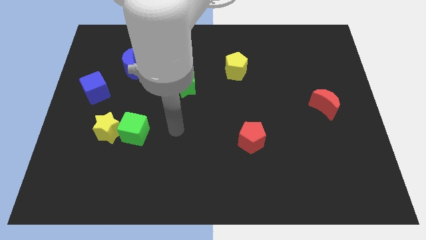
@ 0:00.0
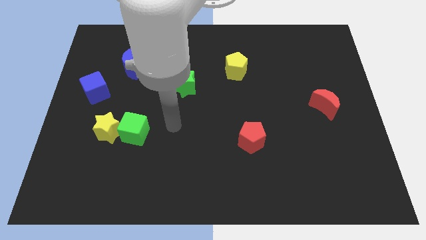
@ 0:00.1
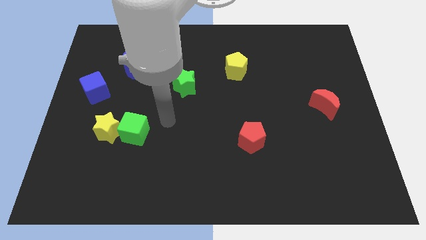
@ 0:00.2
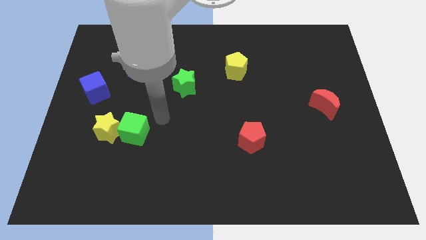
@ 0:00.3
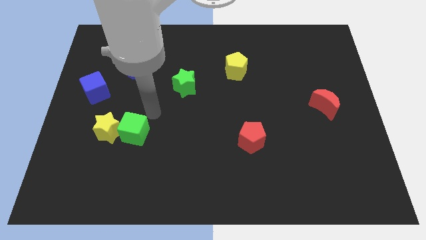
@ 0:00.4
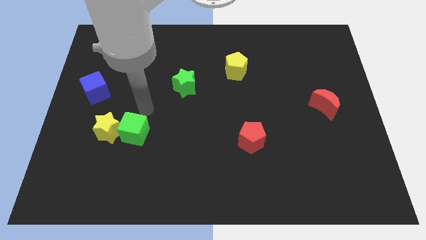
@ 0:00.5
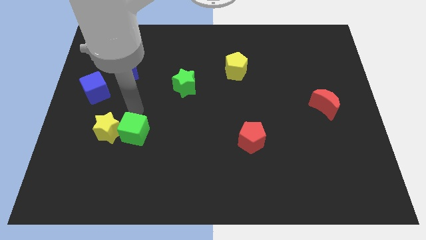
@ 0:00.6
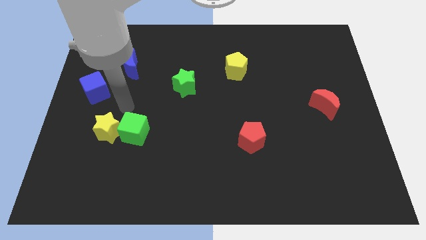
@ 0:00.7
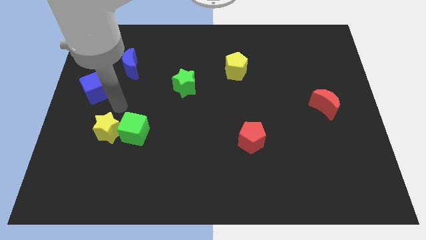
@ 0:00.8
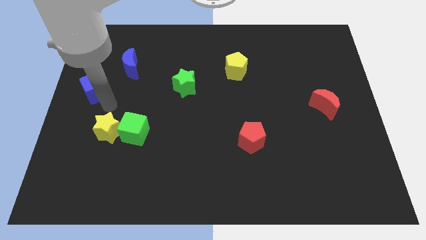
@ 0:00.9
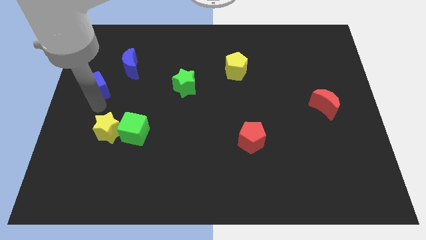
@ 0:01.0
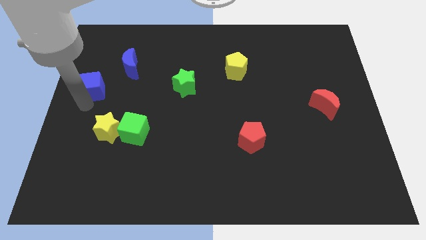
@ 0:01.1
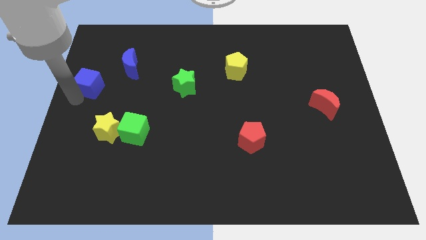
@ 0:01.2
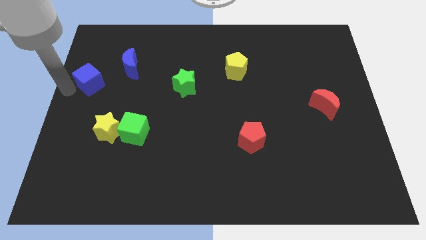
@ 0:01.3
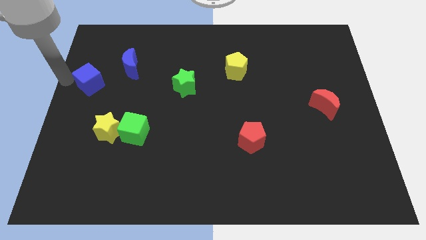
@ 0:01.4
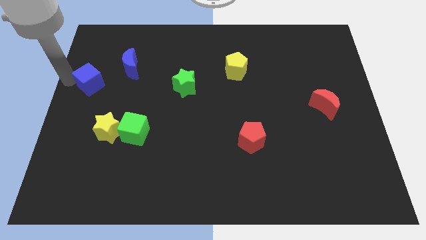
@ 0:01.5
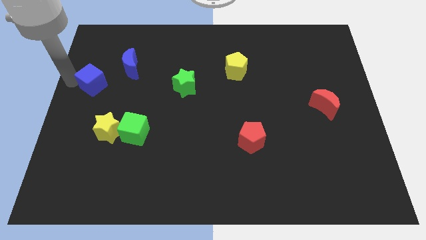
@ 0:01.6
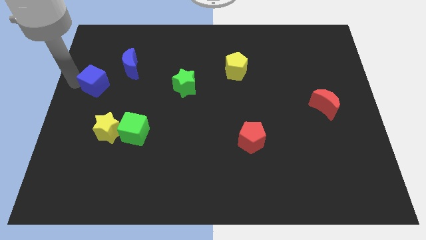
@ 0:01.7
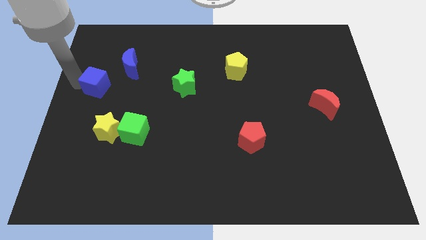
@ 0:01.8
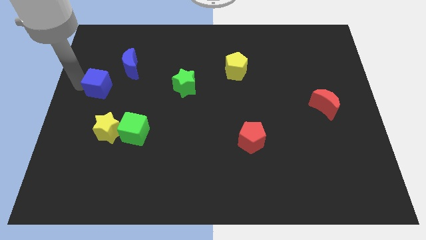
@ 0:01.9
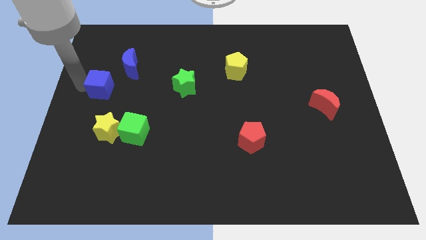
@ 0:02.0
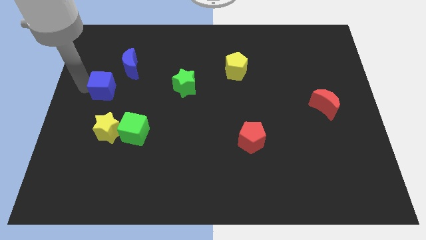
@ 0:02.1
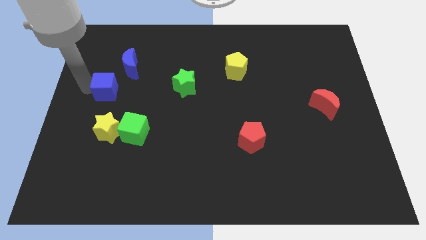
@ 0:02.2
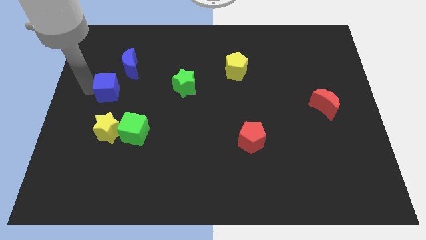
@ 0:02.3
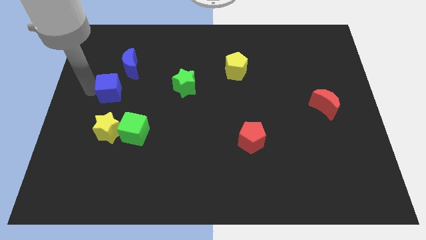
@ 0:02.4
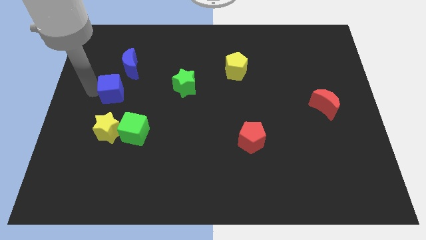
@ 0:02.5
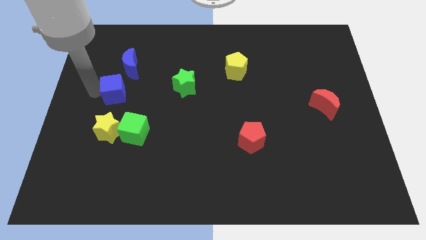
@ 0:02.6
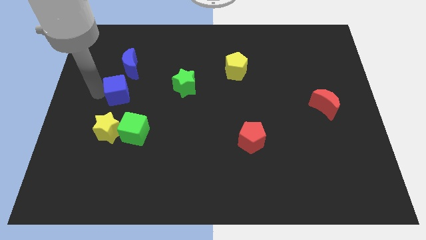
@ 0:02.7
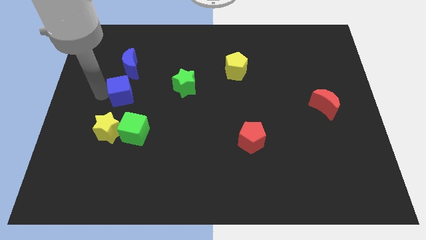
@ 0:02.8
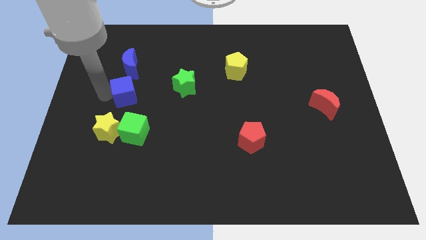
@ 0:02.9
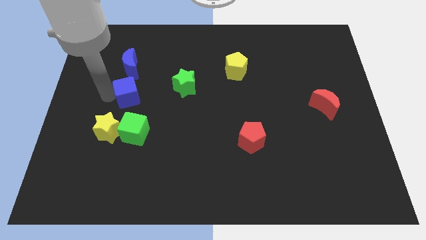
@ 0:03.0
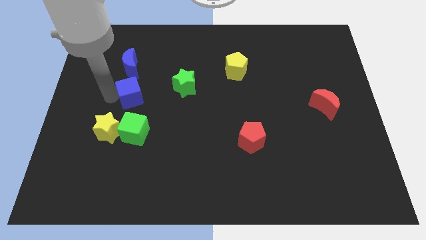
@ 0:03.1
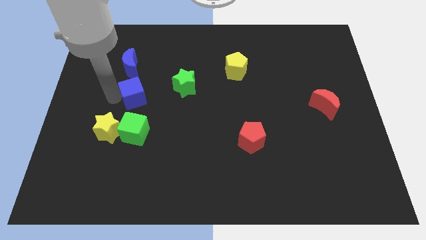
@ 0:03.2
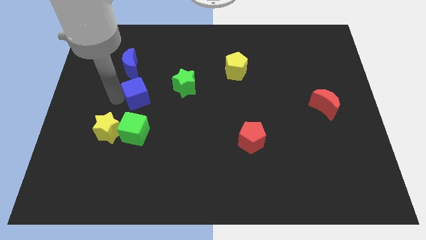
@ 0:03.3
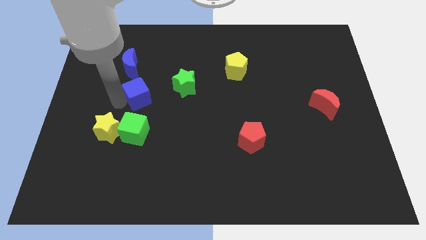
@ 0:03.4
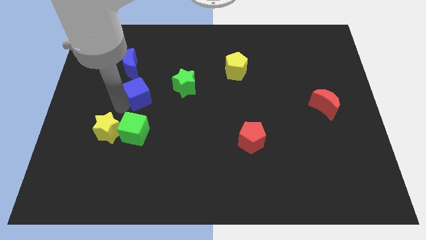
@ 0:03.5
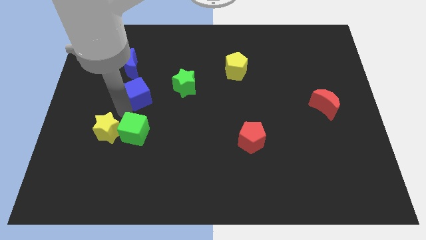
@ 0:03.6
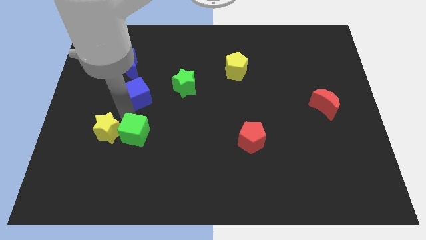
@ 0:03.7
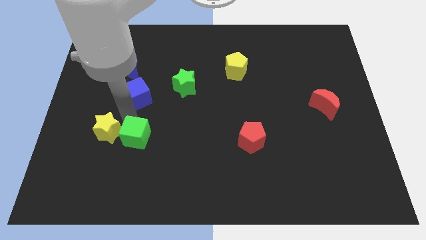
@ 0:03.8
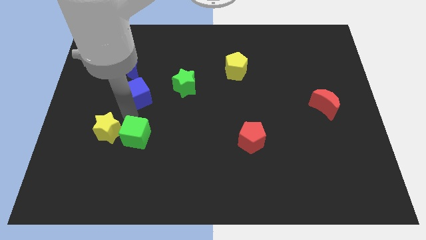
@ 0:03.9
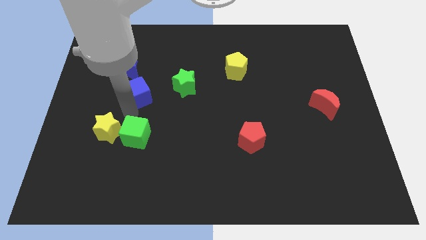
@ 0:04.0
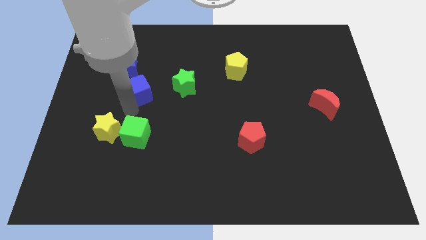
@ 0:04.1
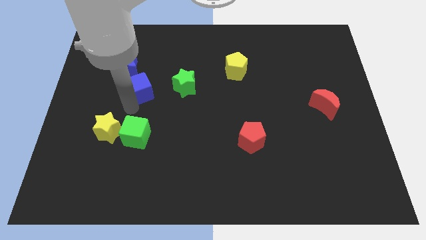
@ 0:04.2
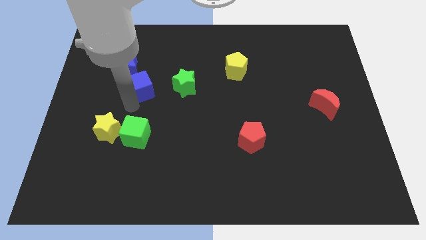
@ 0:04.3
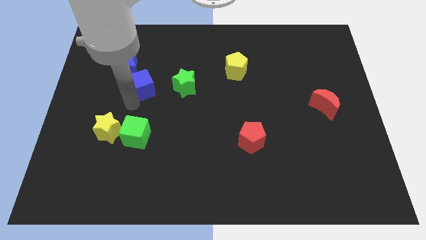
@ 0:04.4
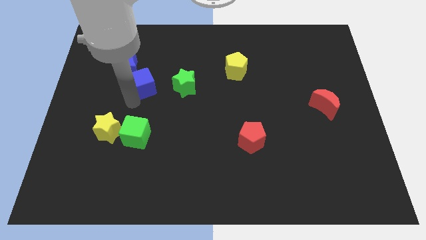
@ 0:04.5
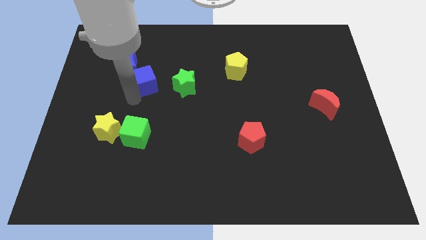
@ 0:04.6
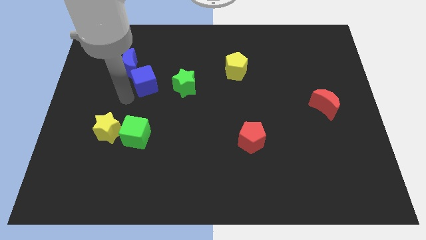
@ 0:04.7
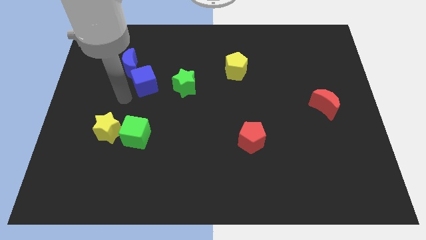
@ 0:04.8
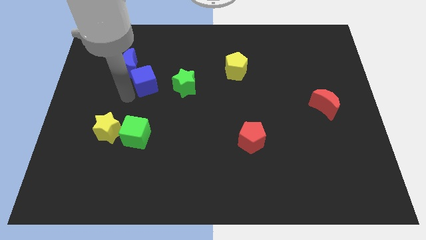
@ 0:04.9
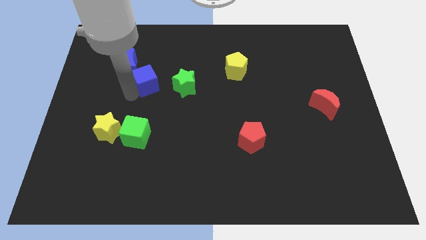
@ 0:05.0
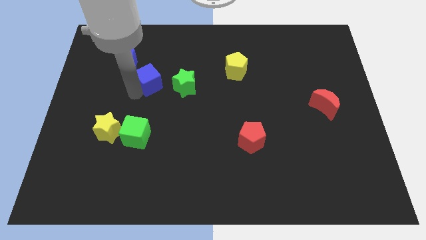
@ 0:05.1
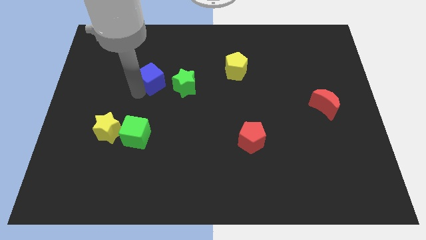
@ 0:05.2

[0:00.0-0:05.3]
move the blue cube right of the blue moon

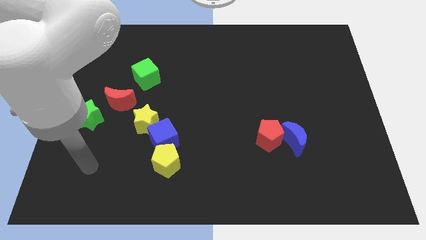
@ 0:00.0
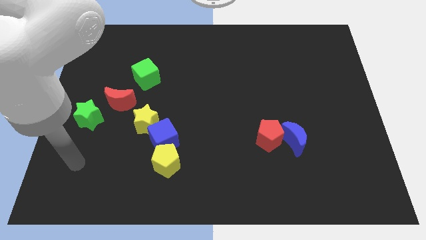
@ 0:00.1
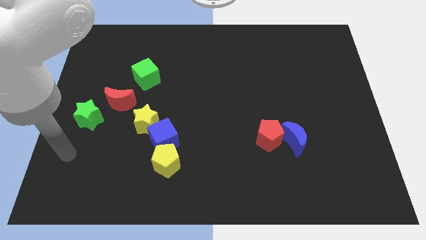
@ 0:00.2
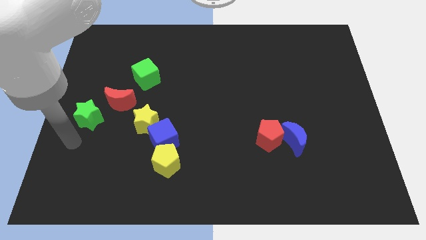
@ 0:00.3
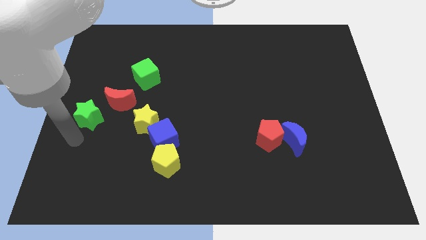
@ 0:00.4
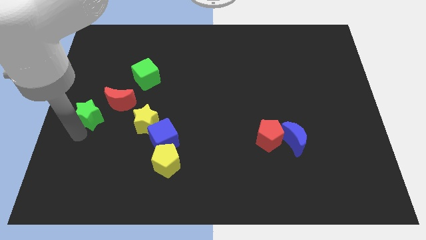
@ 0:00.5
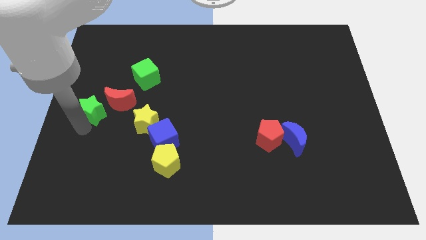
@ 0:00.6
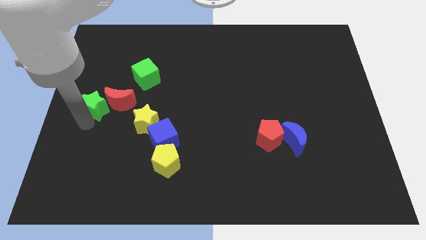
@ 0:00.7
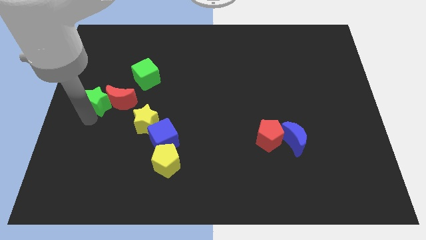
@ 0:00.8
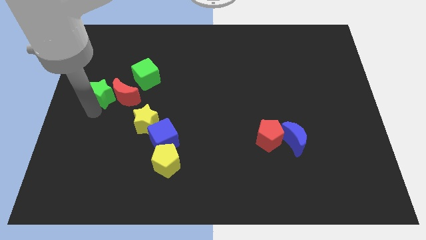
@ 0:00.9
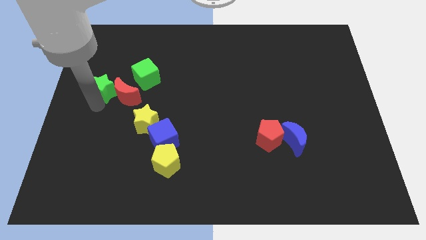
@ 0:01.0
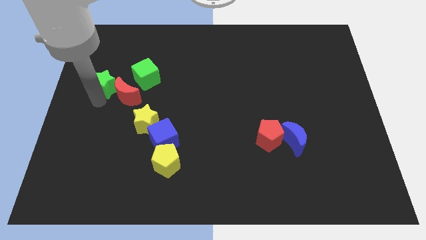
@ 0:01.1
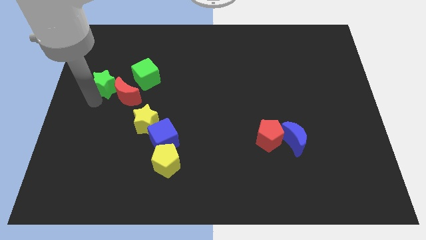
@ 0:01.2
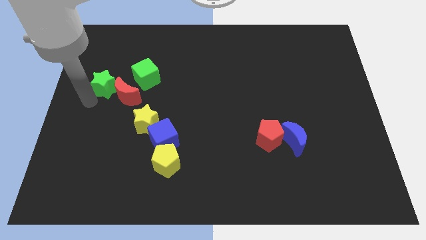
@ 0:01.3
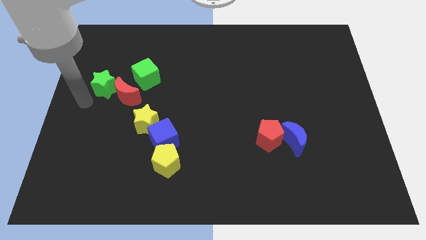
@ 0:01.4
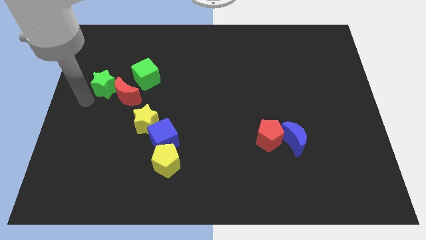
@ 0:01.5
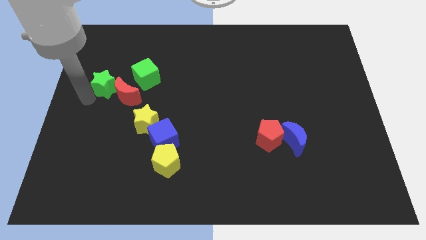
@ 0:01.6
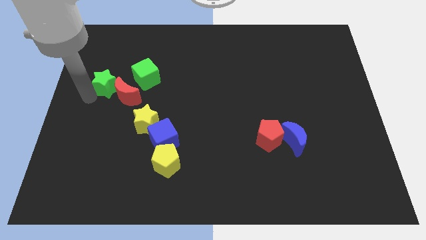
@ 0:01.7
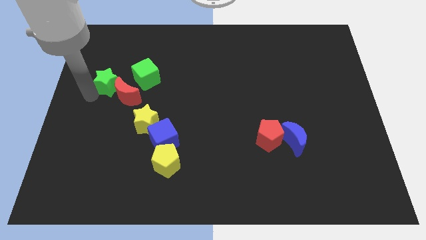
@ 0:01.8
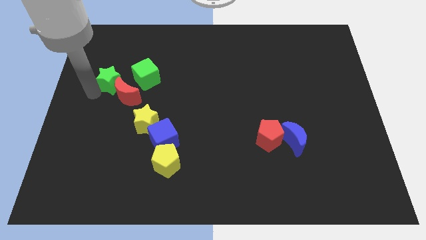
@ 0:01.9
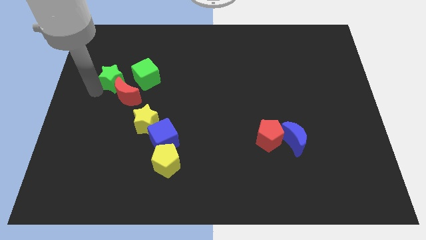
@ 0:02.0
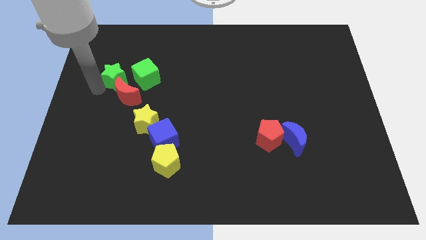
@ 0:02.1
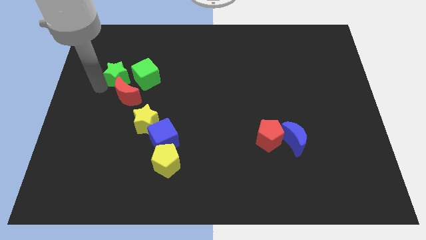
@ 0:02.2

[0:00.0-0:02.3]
push the green star to the top left of the green cube
